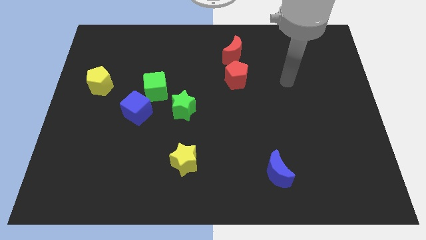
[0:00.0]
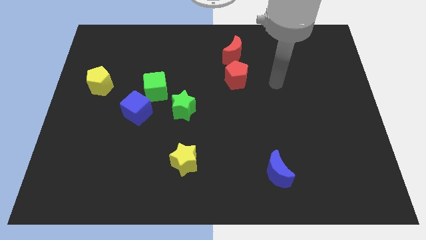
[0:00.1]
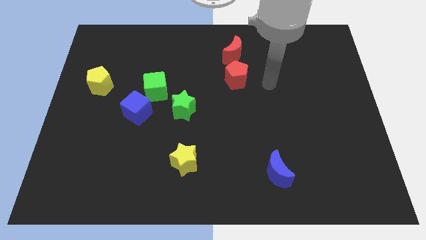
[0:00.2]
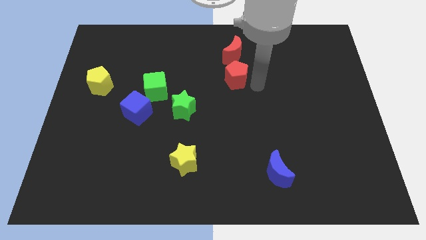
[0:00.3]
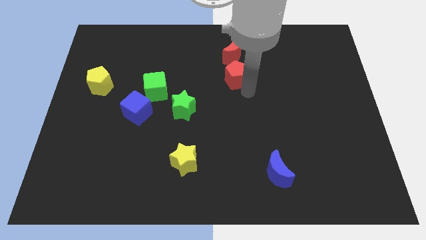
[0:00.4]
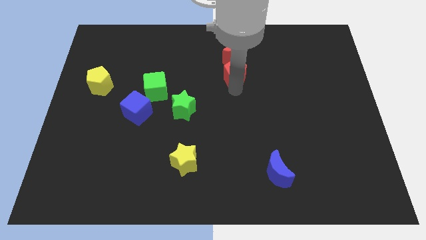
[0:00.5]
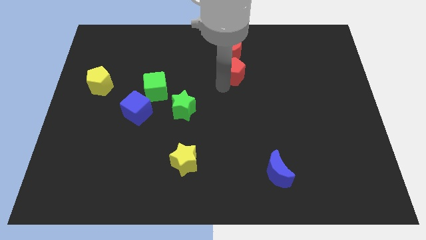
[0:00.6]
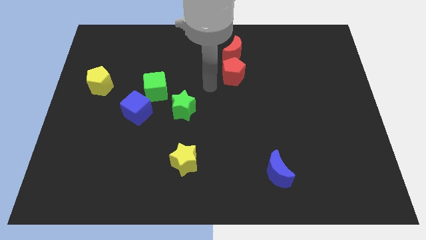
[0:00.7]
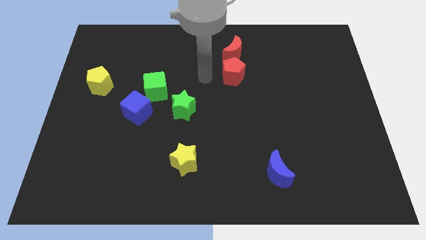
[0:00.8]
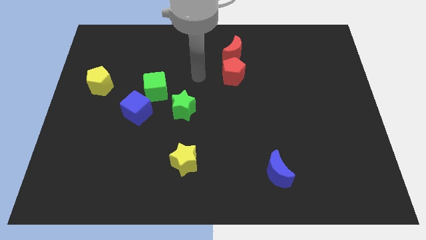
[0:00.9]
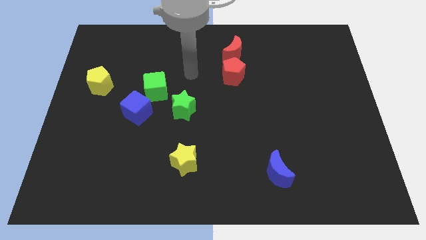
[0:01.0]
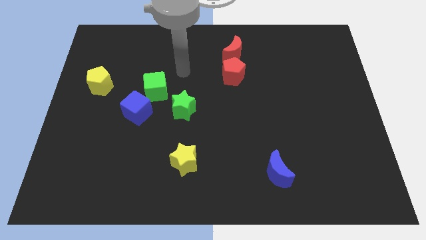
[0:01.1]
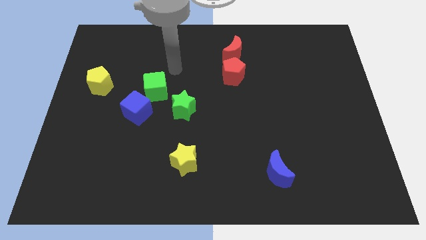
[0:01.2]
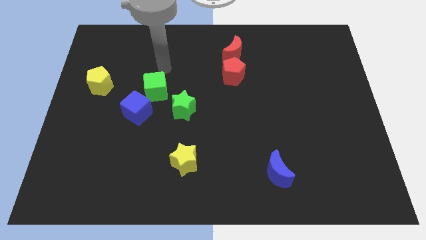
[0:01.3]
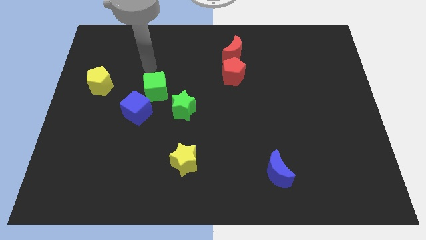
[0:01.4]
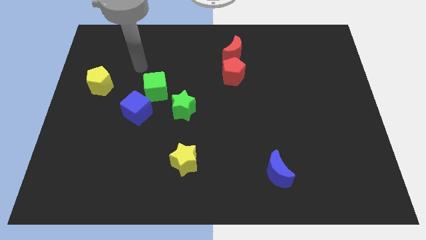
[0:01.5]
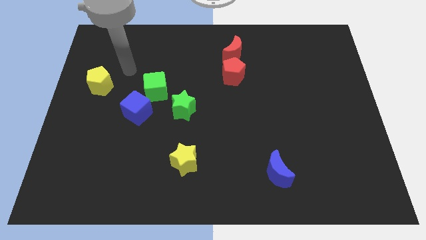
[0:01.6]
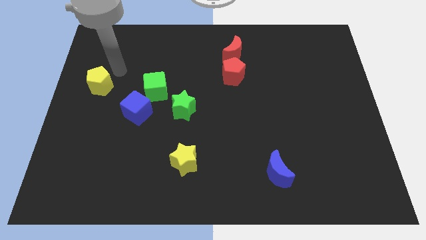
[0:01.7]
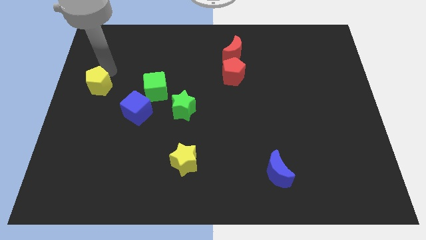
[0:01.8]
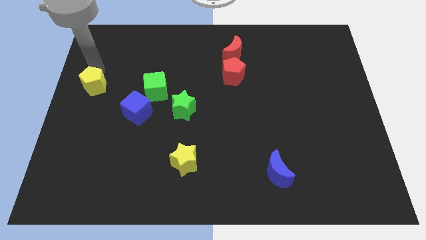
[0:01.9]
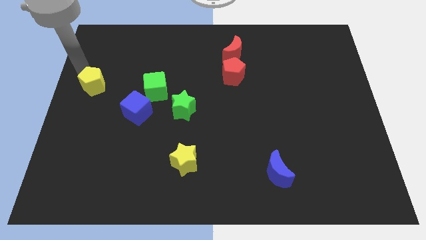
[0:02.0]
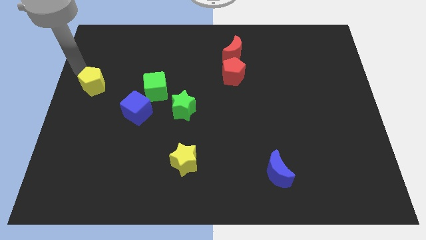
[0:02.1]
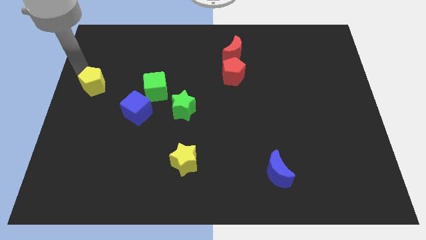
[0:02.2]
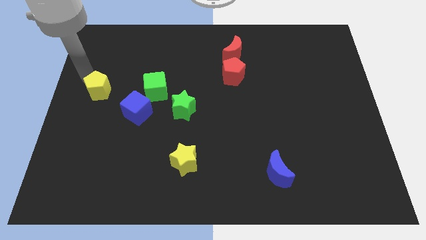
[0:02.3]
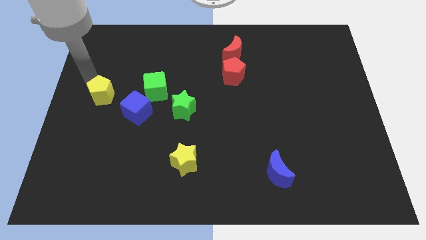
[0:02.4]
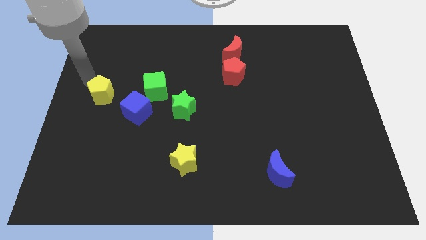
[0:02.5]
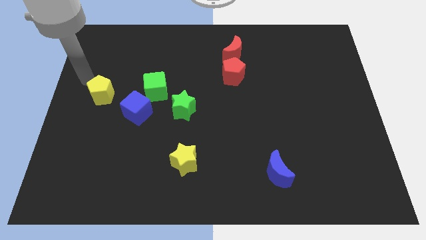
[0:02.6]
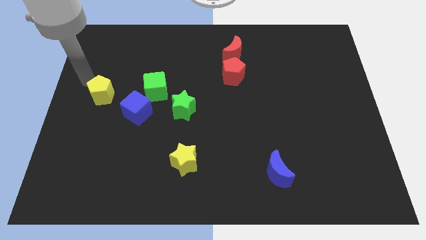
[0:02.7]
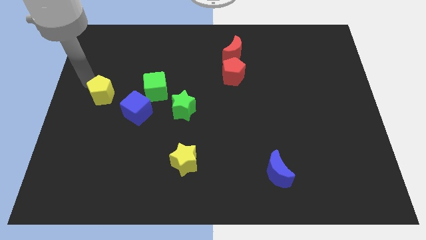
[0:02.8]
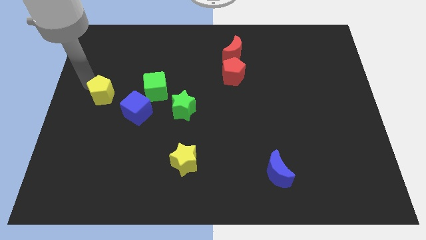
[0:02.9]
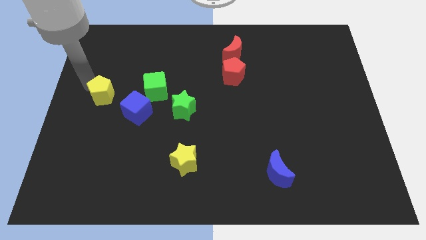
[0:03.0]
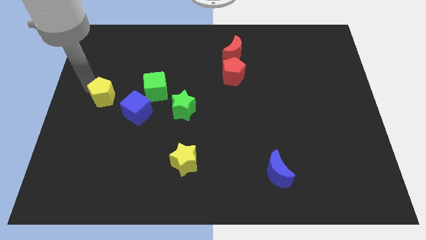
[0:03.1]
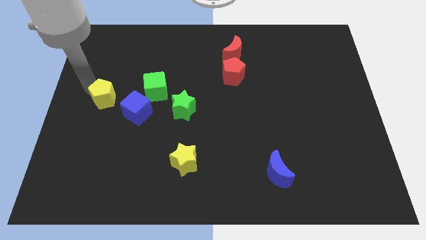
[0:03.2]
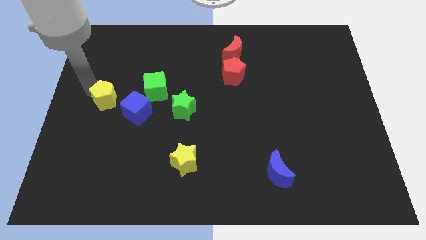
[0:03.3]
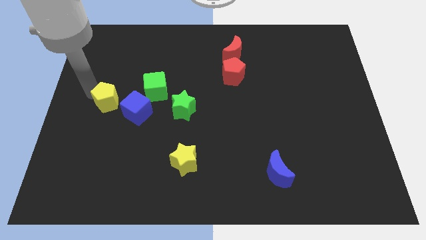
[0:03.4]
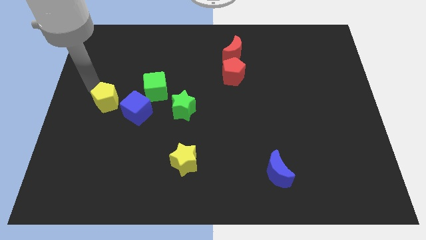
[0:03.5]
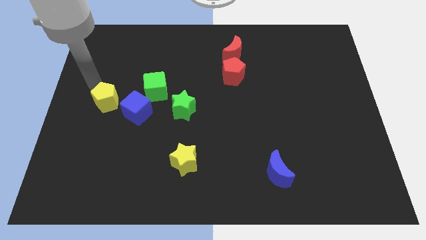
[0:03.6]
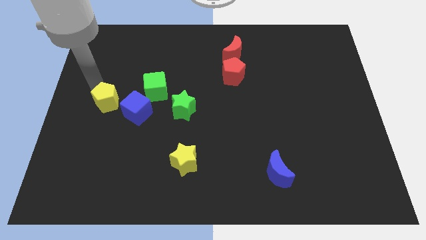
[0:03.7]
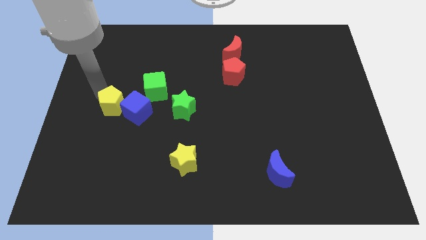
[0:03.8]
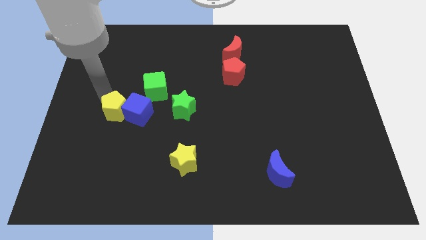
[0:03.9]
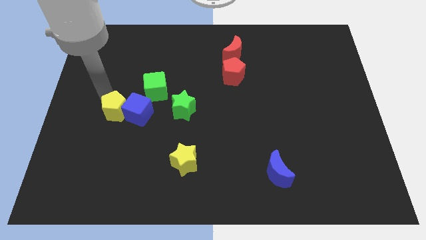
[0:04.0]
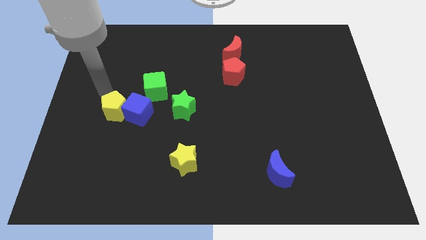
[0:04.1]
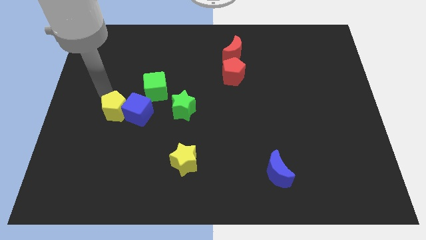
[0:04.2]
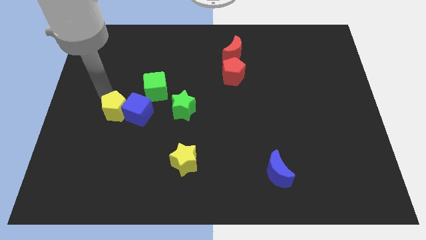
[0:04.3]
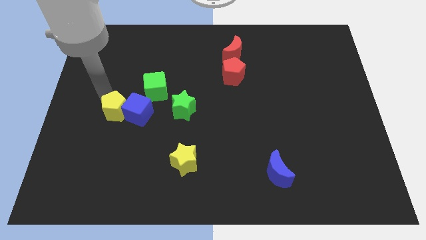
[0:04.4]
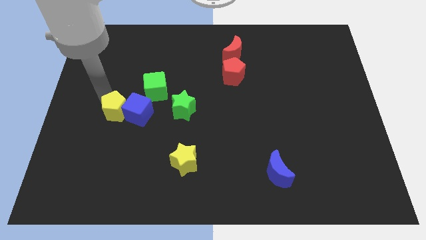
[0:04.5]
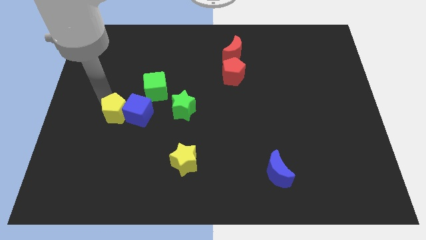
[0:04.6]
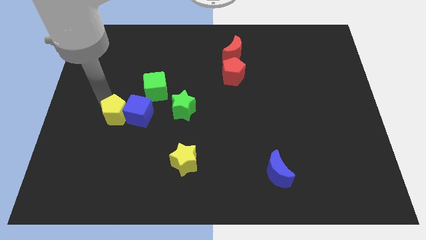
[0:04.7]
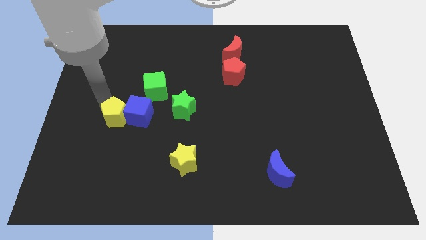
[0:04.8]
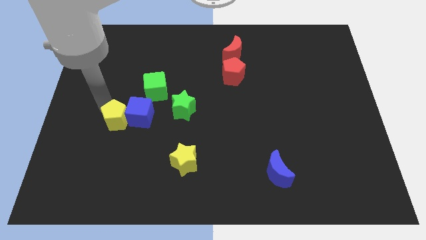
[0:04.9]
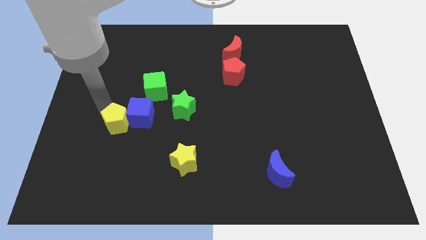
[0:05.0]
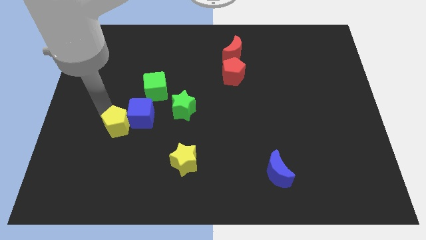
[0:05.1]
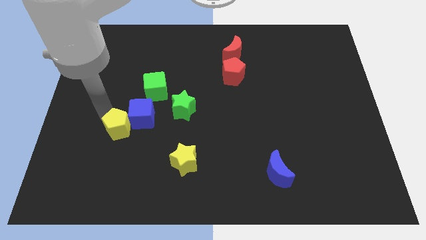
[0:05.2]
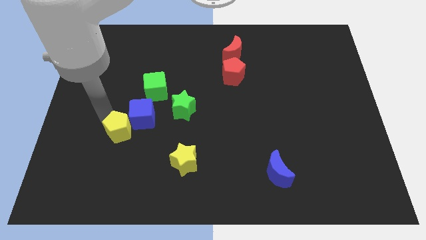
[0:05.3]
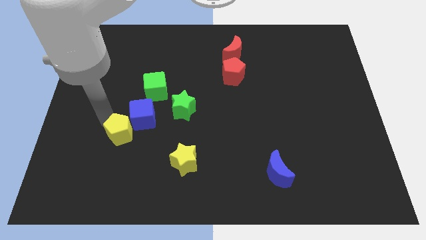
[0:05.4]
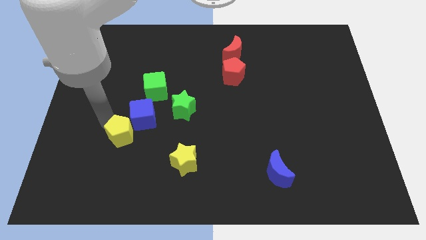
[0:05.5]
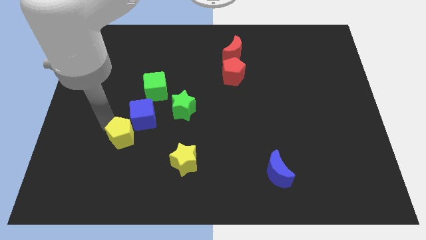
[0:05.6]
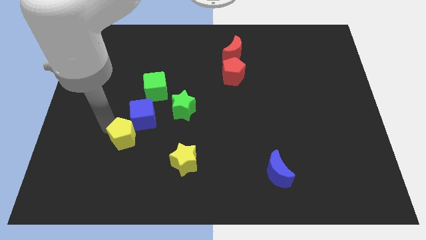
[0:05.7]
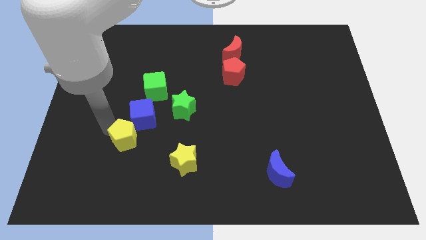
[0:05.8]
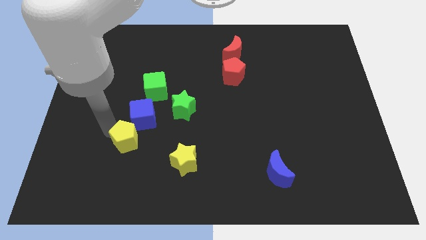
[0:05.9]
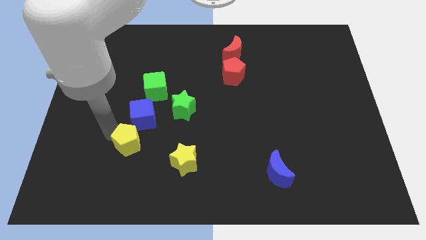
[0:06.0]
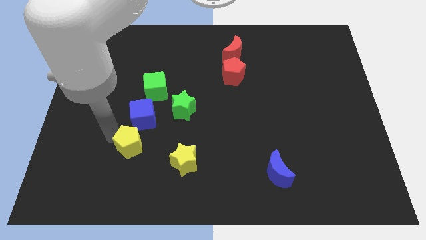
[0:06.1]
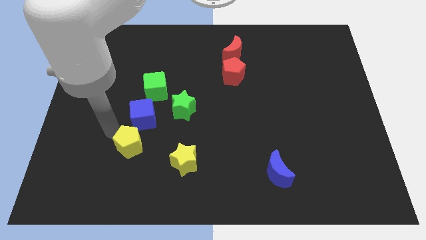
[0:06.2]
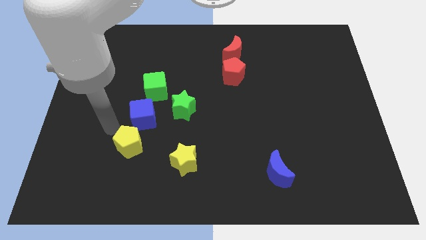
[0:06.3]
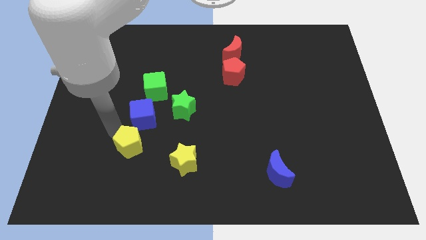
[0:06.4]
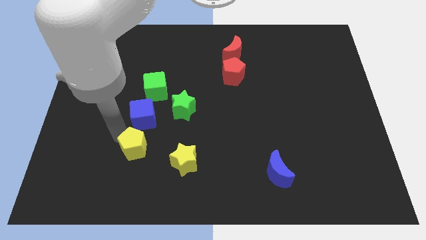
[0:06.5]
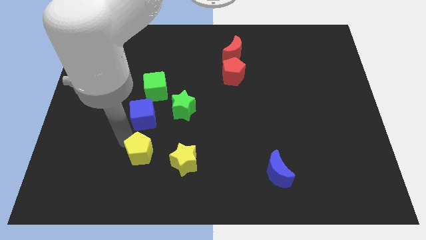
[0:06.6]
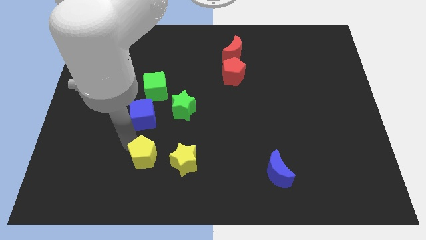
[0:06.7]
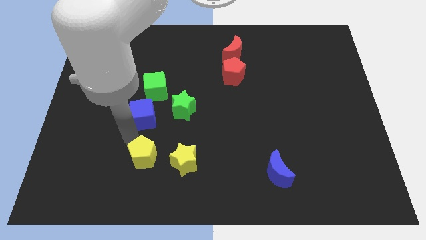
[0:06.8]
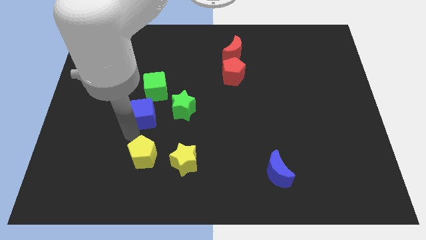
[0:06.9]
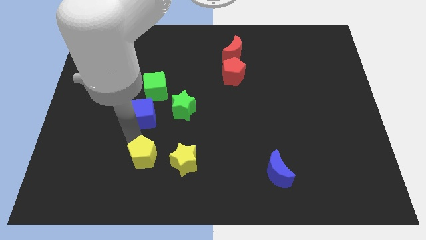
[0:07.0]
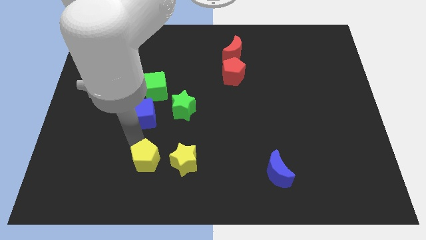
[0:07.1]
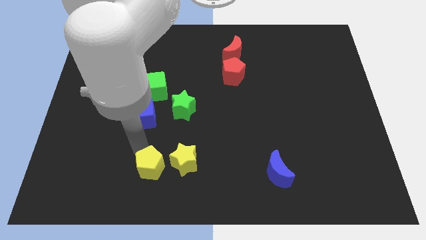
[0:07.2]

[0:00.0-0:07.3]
move the yellow pentagon to the bottom left of the yellow star
